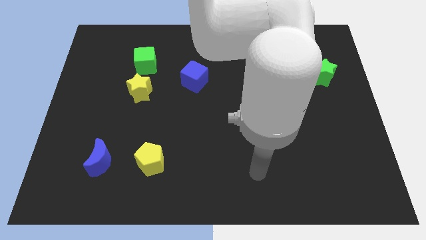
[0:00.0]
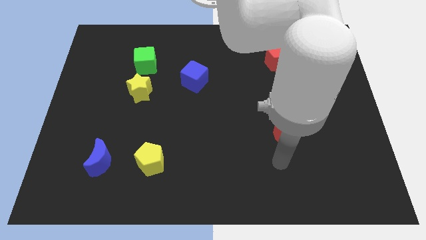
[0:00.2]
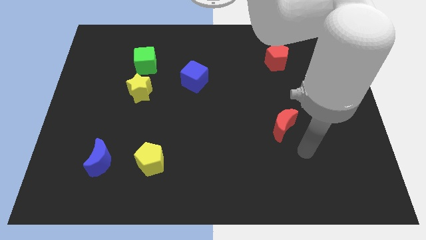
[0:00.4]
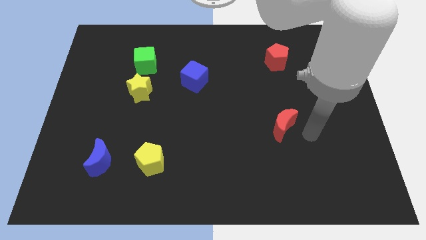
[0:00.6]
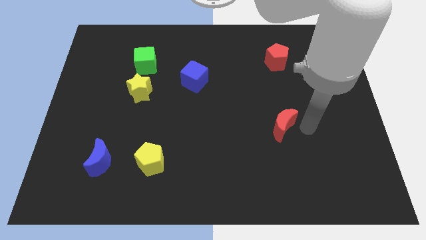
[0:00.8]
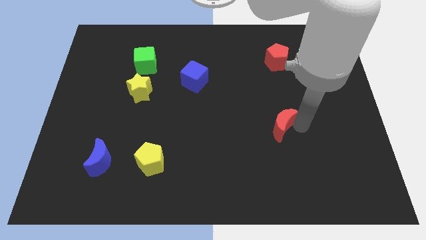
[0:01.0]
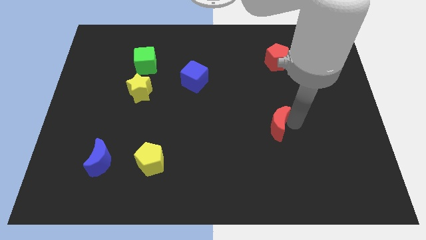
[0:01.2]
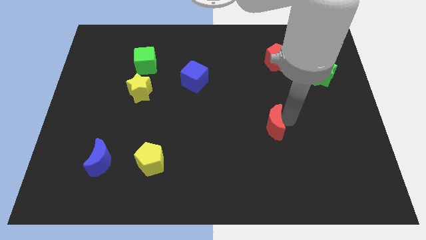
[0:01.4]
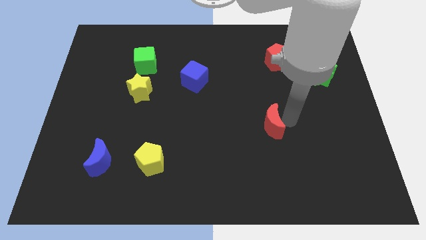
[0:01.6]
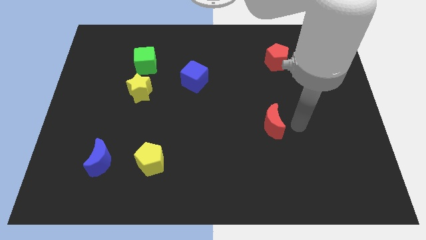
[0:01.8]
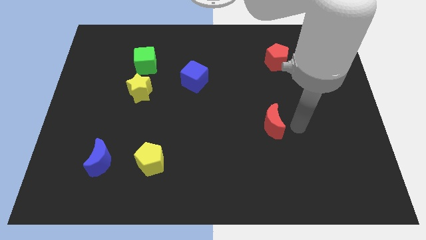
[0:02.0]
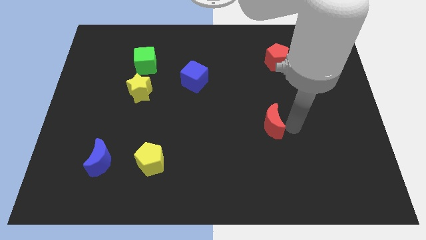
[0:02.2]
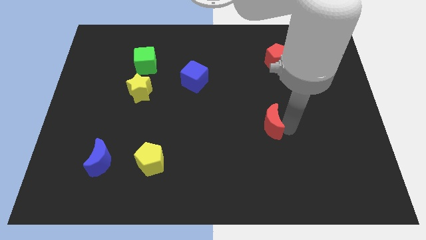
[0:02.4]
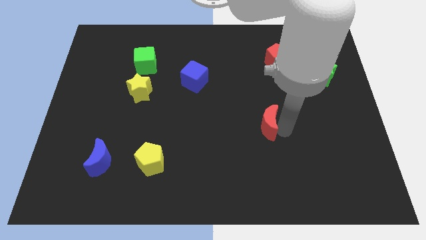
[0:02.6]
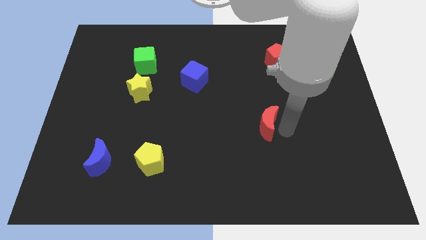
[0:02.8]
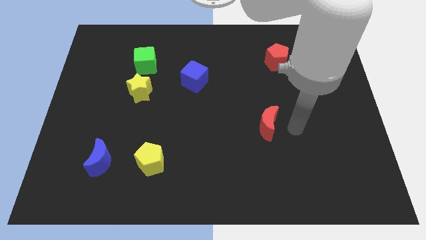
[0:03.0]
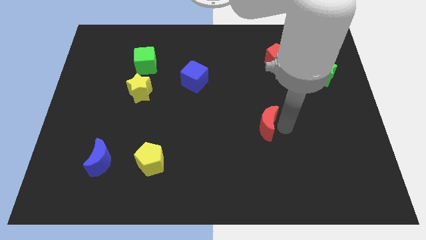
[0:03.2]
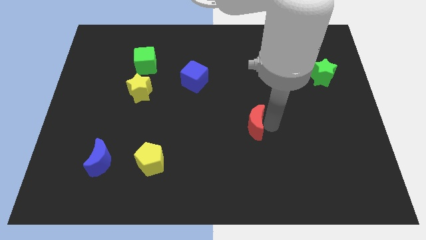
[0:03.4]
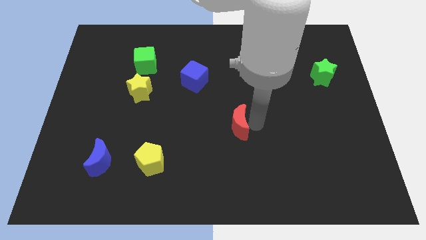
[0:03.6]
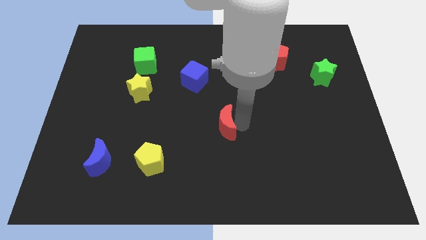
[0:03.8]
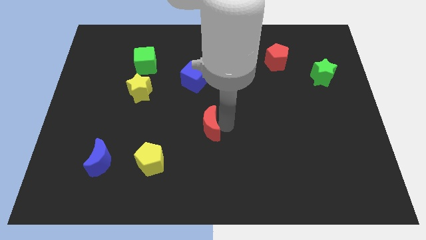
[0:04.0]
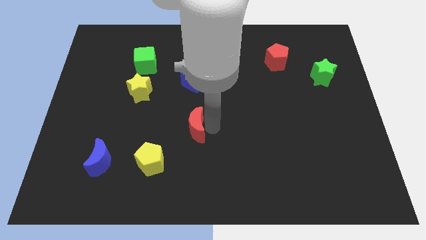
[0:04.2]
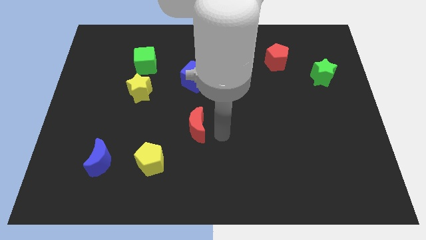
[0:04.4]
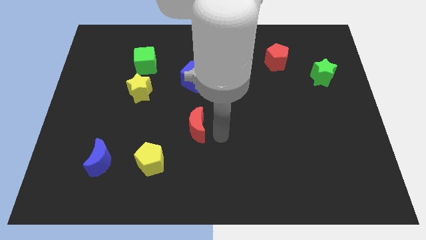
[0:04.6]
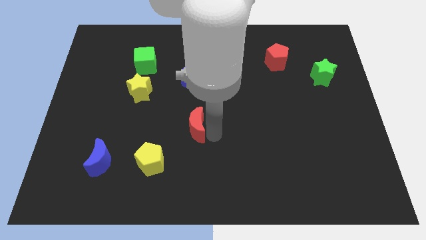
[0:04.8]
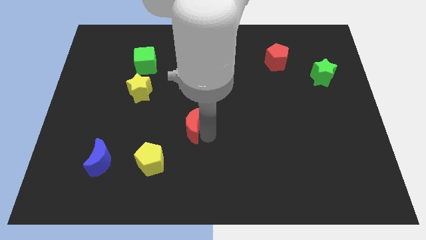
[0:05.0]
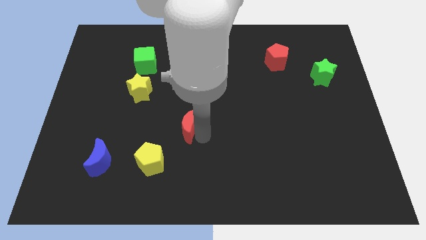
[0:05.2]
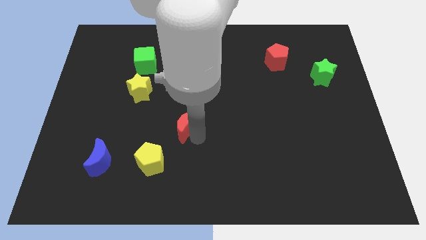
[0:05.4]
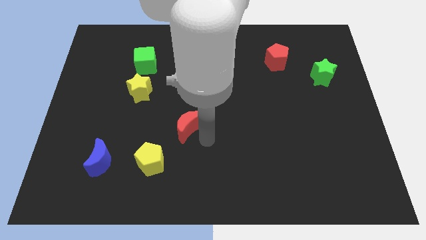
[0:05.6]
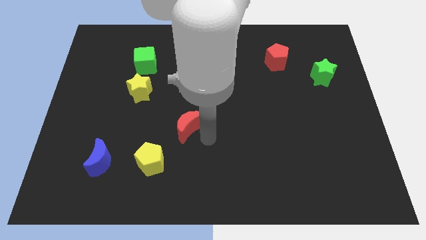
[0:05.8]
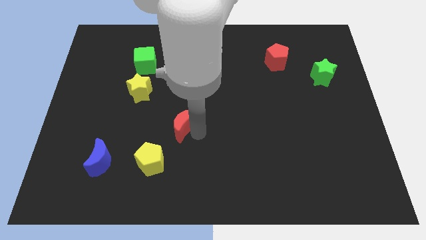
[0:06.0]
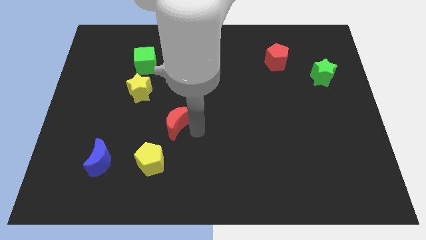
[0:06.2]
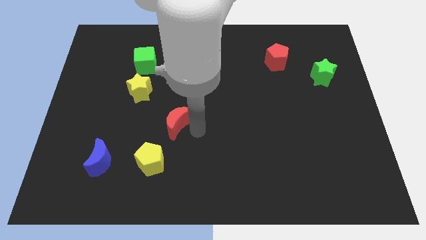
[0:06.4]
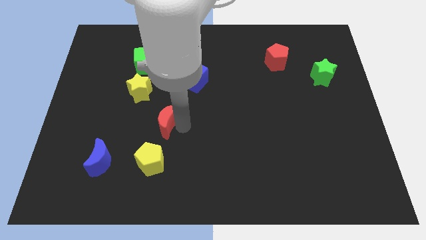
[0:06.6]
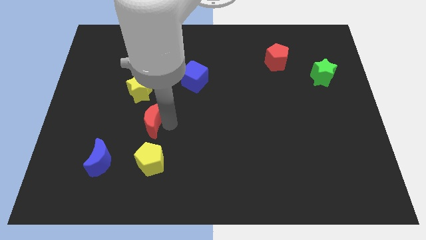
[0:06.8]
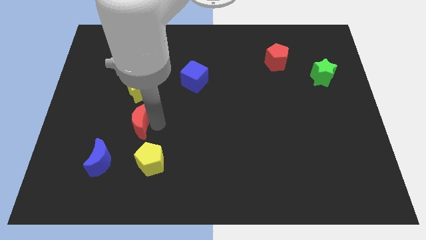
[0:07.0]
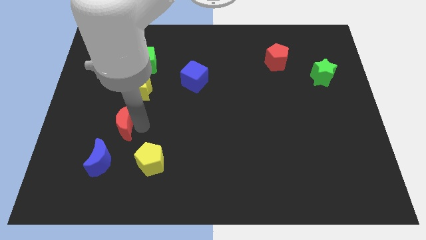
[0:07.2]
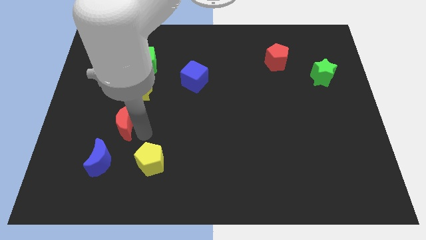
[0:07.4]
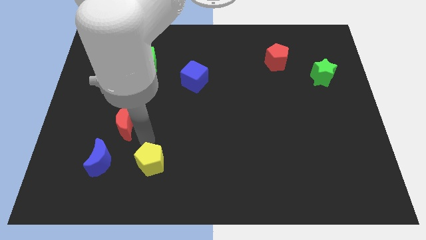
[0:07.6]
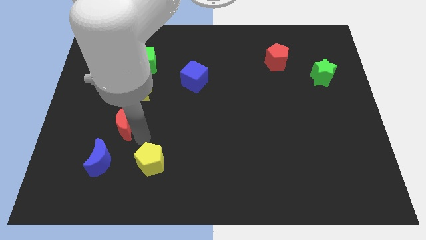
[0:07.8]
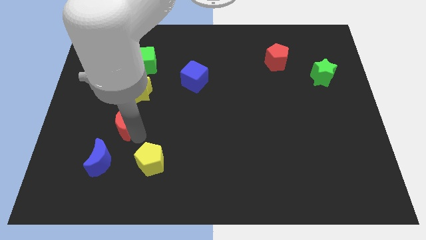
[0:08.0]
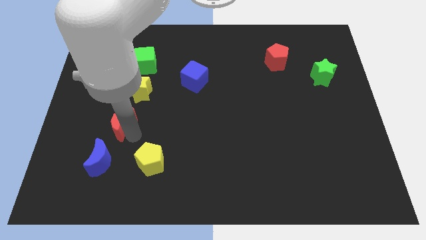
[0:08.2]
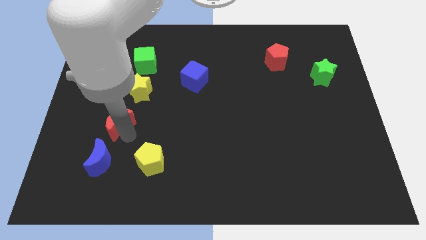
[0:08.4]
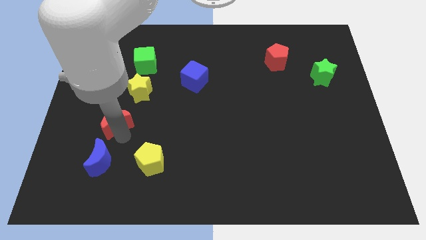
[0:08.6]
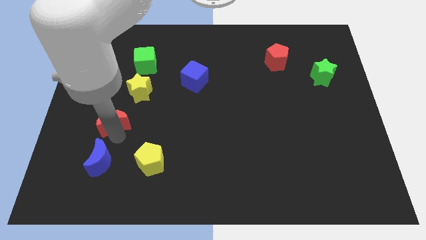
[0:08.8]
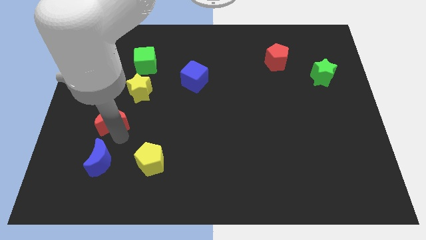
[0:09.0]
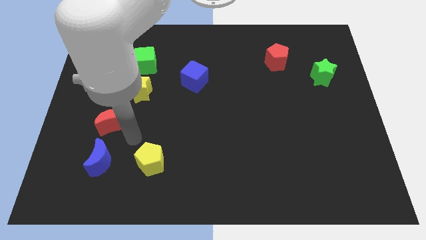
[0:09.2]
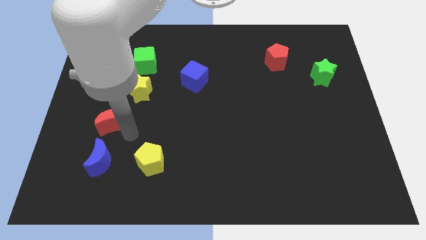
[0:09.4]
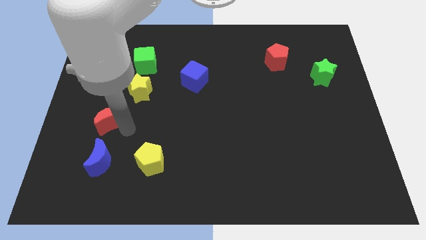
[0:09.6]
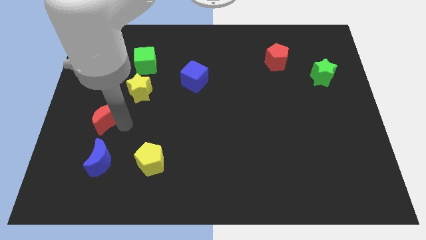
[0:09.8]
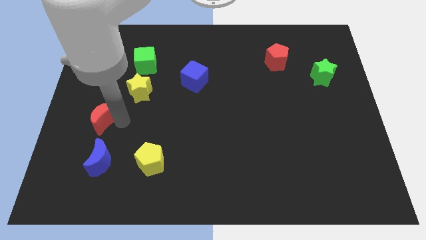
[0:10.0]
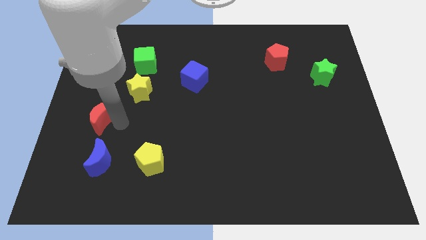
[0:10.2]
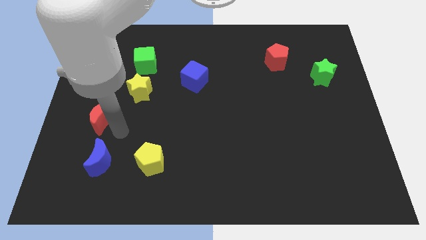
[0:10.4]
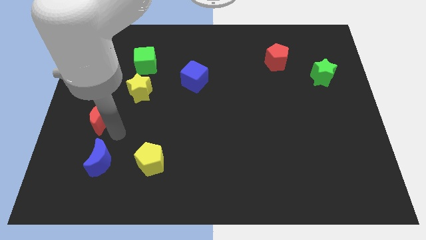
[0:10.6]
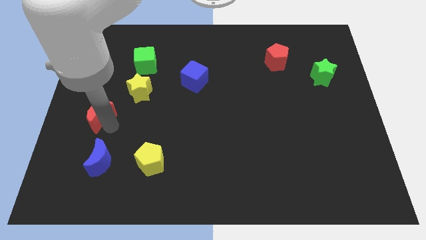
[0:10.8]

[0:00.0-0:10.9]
push the red moon to the center left

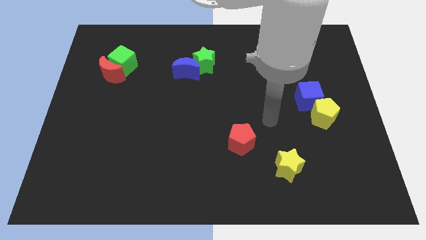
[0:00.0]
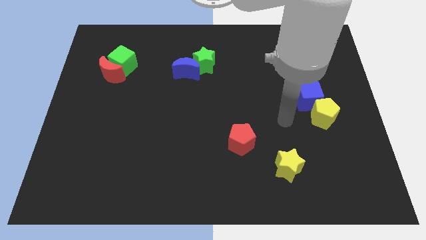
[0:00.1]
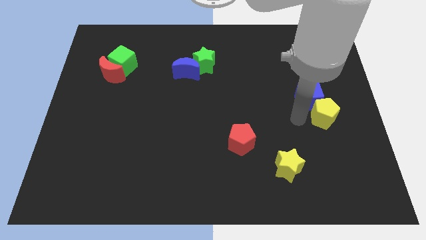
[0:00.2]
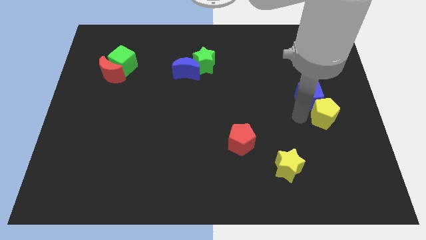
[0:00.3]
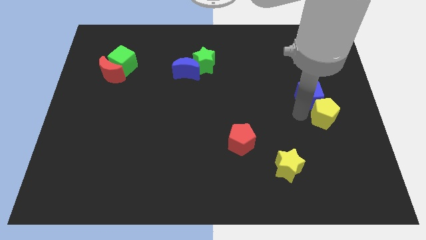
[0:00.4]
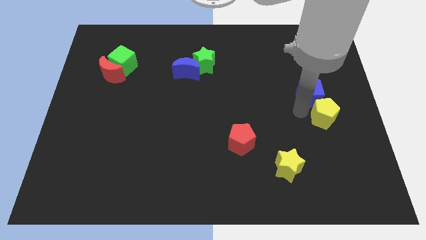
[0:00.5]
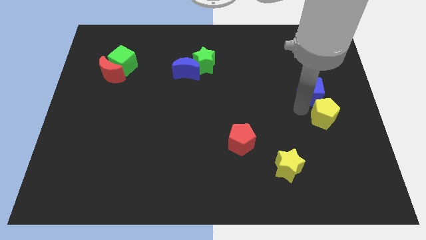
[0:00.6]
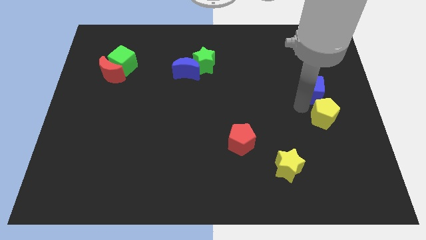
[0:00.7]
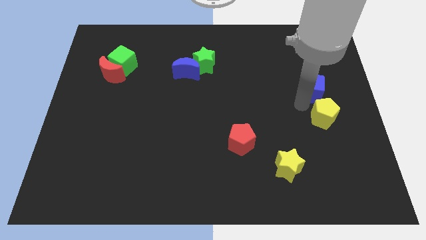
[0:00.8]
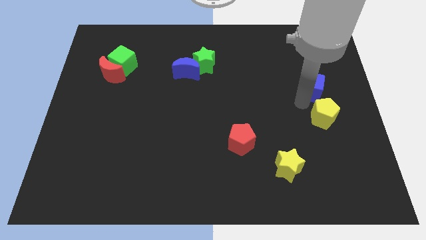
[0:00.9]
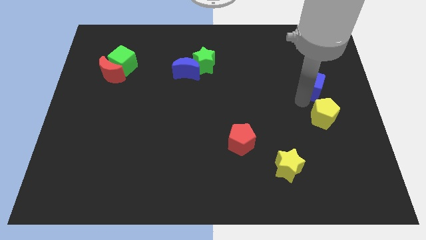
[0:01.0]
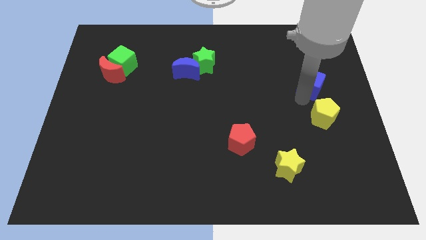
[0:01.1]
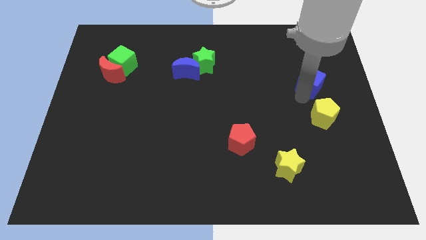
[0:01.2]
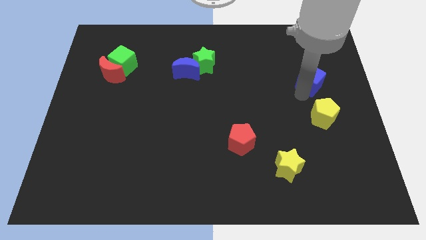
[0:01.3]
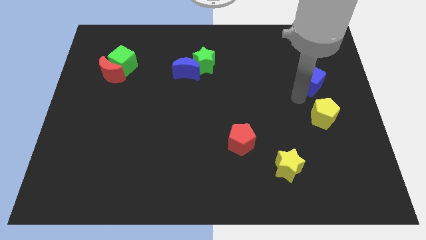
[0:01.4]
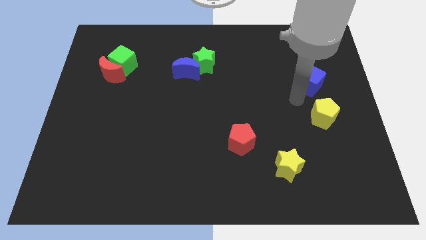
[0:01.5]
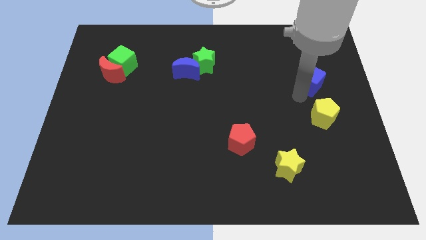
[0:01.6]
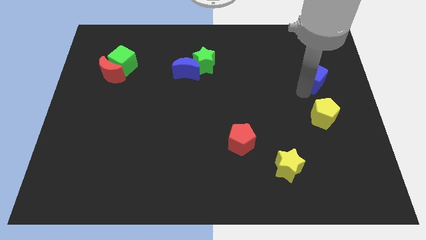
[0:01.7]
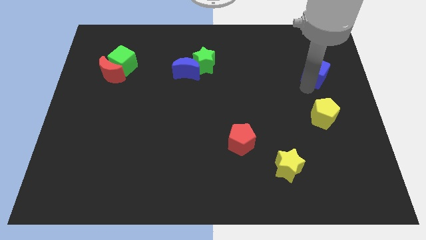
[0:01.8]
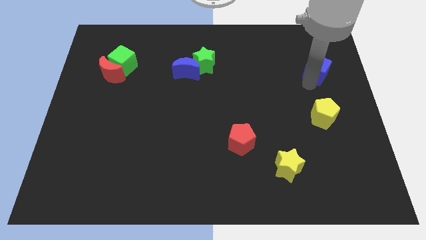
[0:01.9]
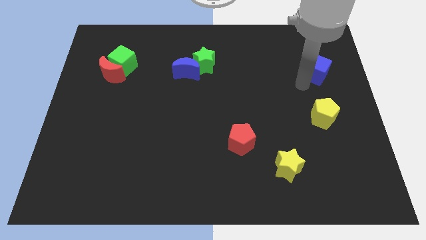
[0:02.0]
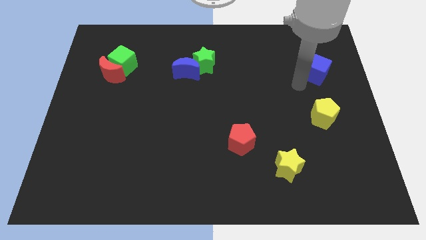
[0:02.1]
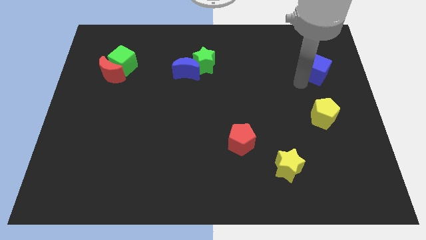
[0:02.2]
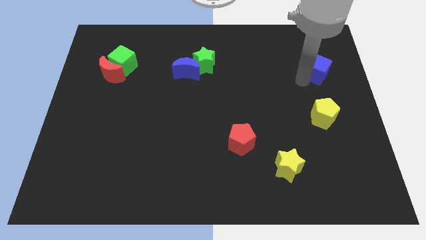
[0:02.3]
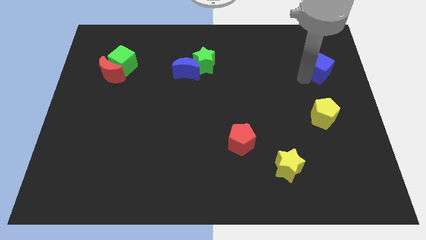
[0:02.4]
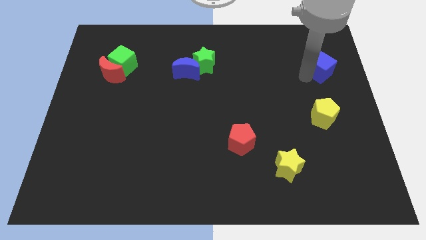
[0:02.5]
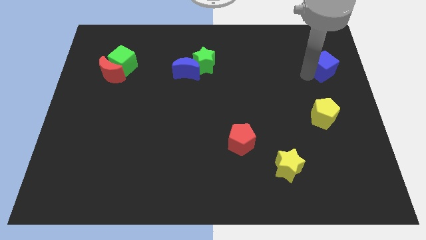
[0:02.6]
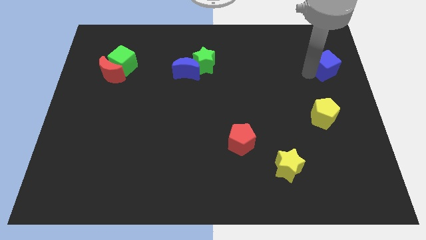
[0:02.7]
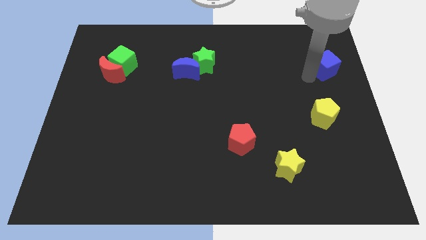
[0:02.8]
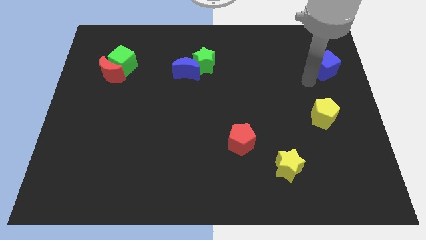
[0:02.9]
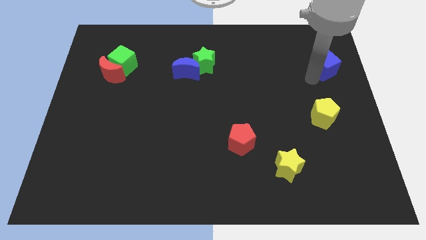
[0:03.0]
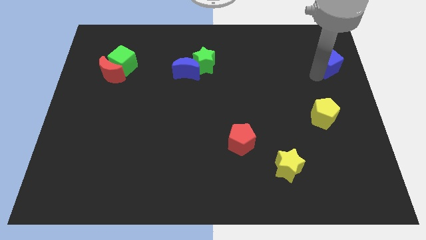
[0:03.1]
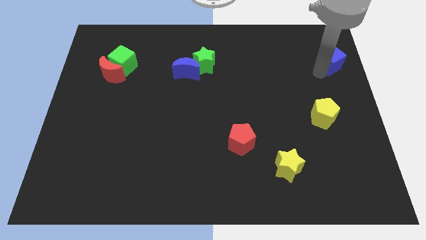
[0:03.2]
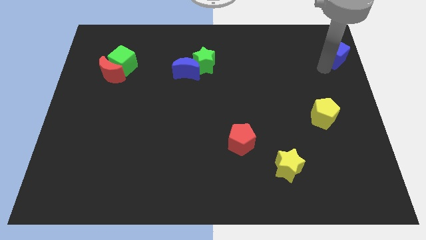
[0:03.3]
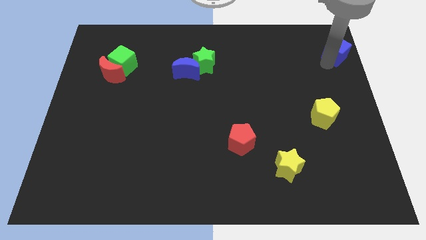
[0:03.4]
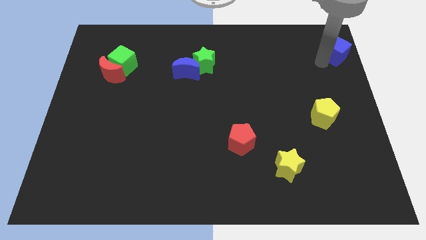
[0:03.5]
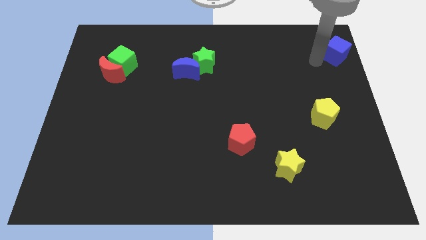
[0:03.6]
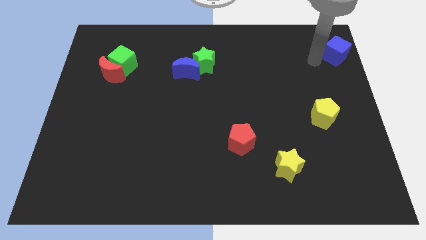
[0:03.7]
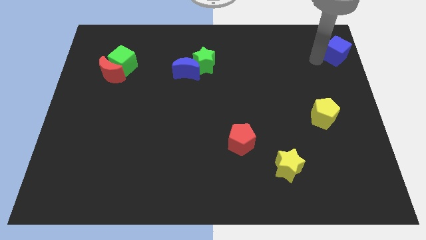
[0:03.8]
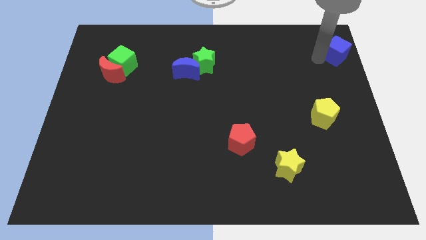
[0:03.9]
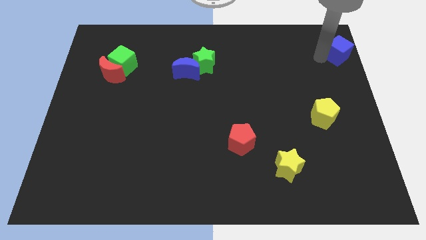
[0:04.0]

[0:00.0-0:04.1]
put the blue cube to the top right
